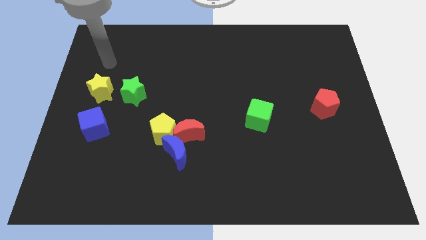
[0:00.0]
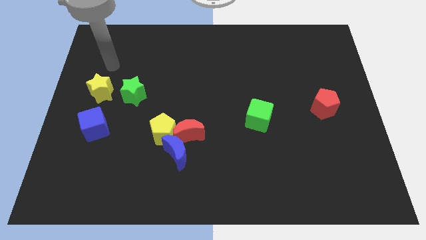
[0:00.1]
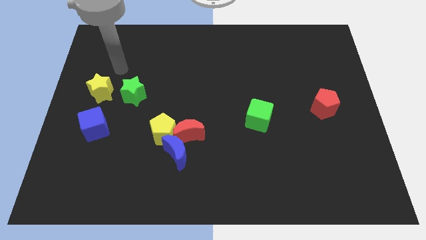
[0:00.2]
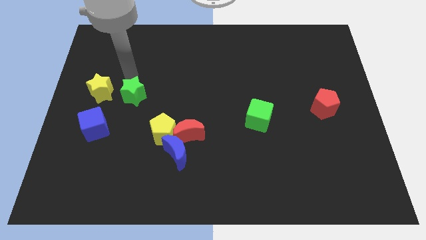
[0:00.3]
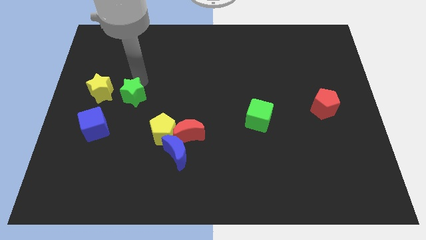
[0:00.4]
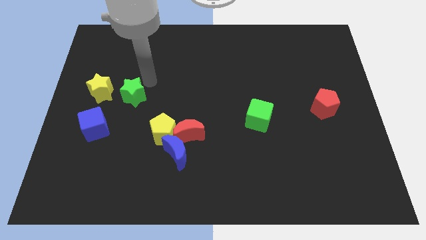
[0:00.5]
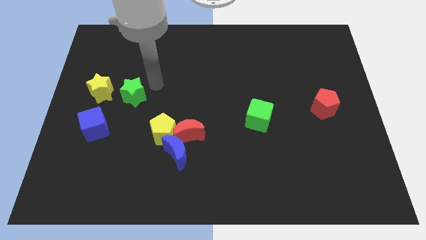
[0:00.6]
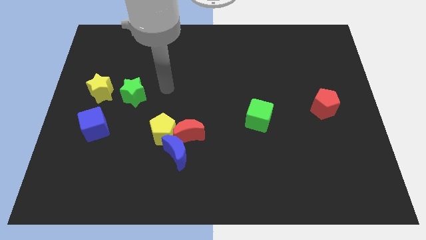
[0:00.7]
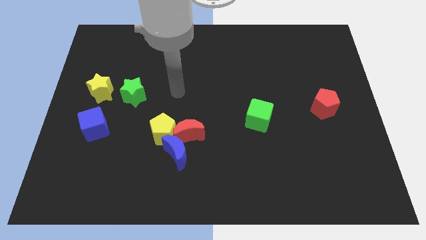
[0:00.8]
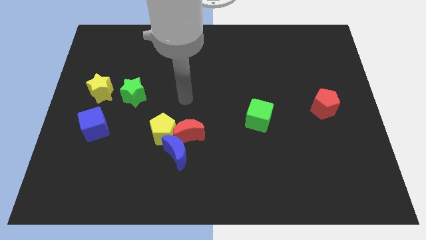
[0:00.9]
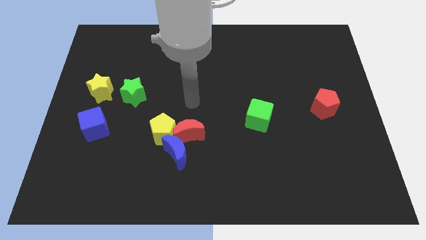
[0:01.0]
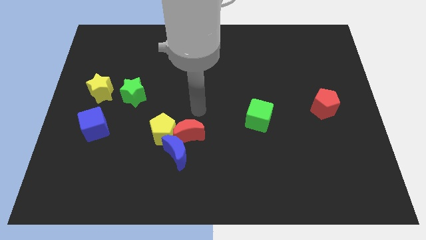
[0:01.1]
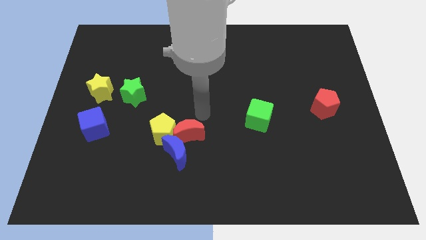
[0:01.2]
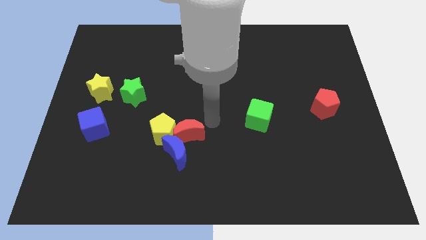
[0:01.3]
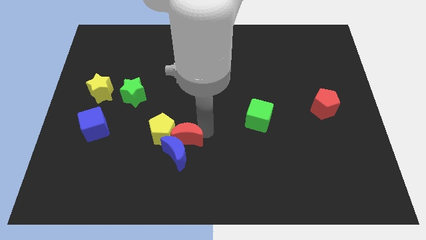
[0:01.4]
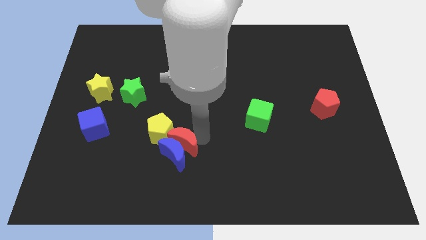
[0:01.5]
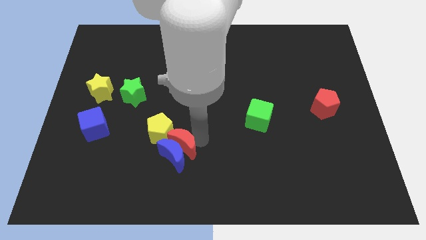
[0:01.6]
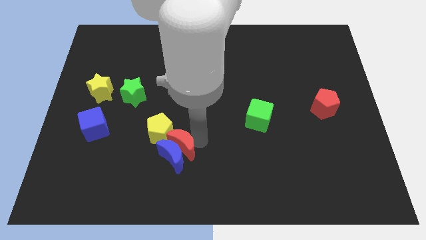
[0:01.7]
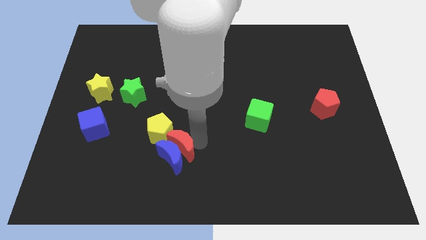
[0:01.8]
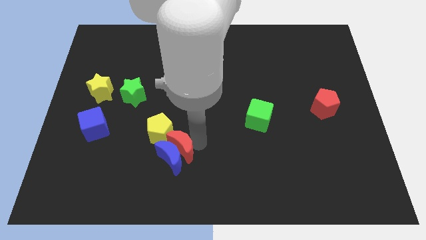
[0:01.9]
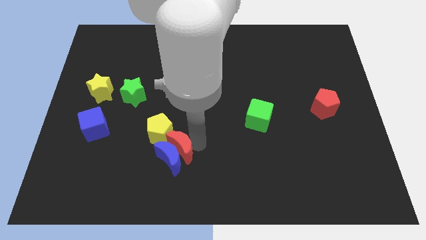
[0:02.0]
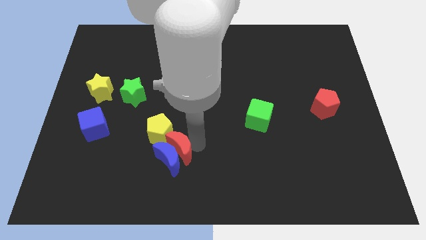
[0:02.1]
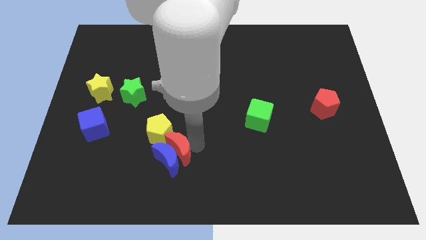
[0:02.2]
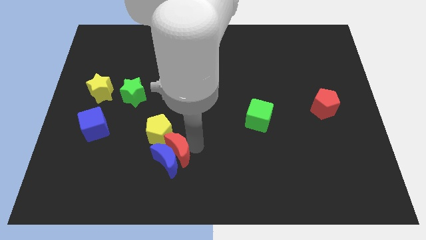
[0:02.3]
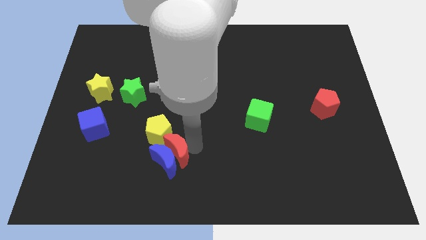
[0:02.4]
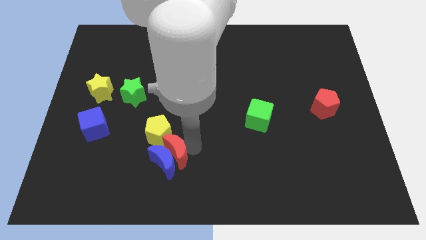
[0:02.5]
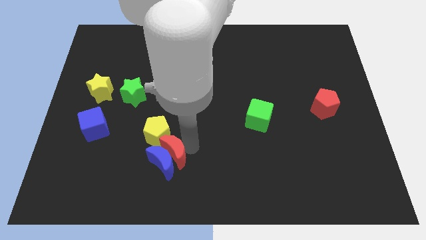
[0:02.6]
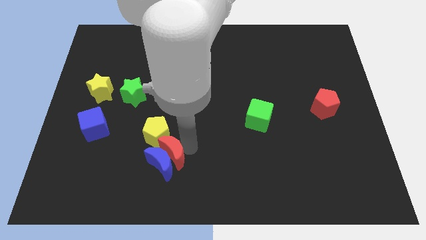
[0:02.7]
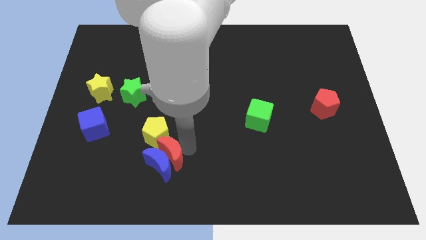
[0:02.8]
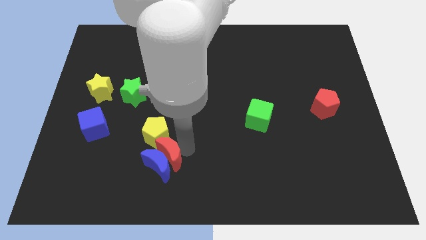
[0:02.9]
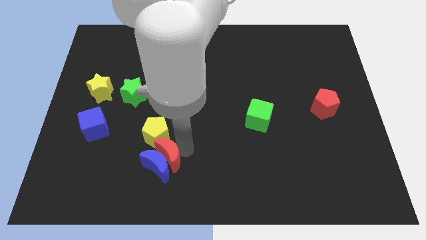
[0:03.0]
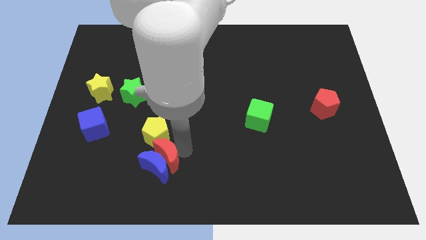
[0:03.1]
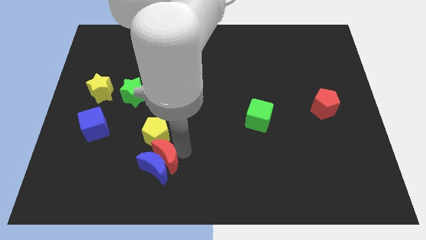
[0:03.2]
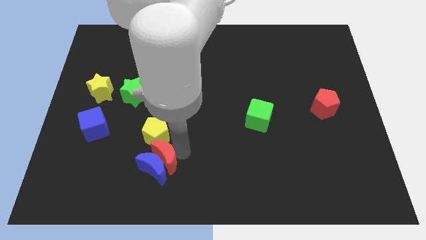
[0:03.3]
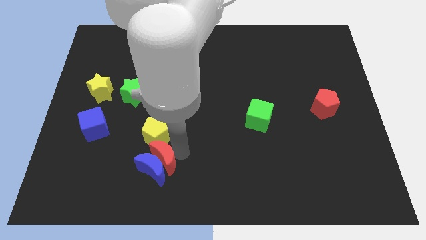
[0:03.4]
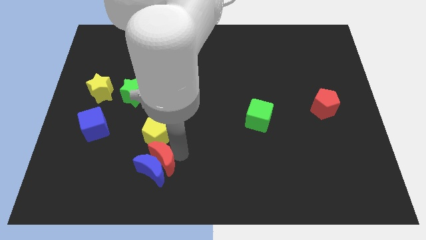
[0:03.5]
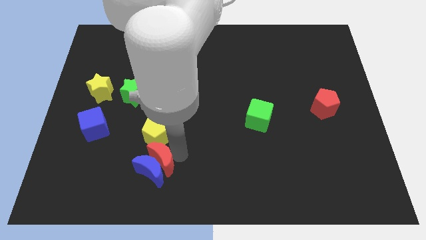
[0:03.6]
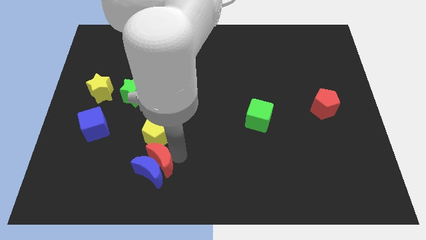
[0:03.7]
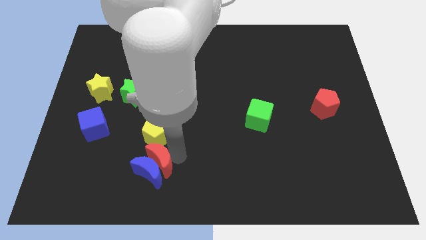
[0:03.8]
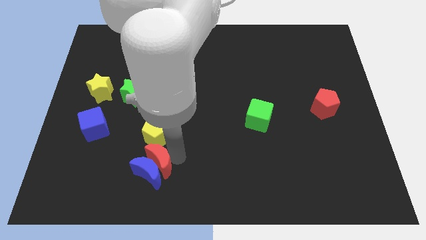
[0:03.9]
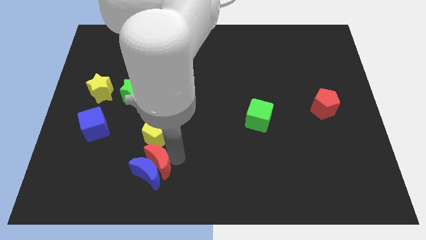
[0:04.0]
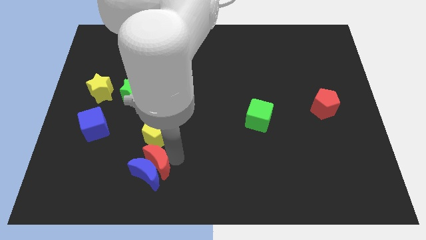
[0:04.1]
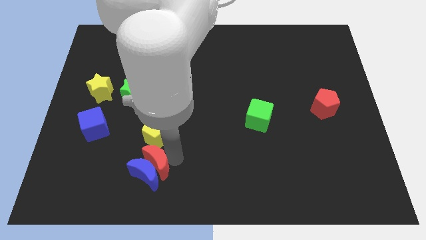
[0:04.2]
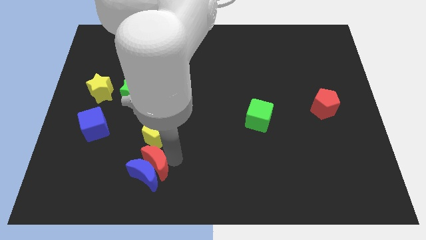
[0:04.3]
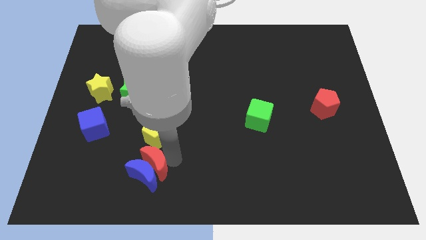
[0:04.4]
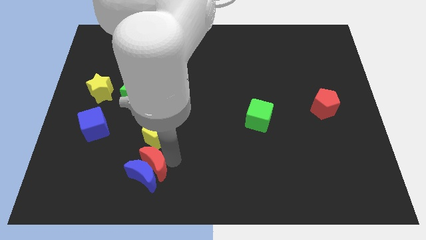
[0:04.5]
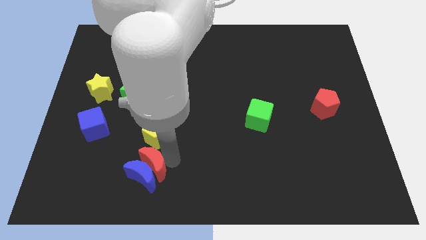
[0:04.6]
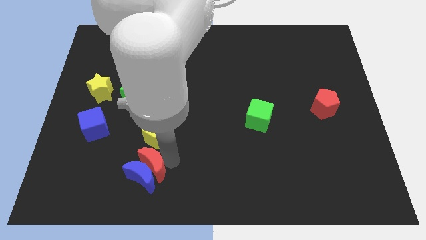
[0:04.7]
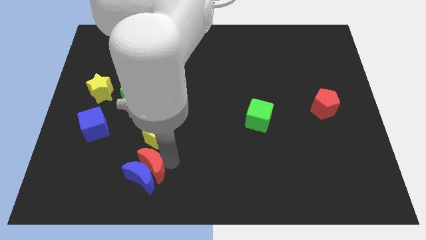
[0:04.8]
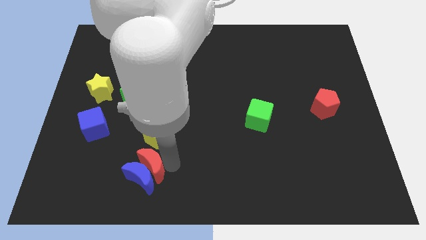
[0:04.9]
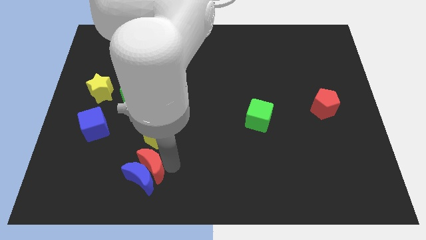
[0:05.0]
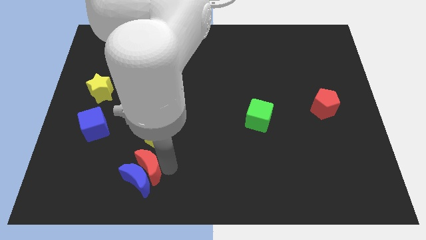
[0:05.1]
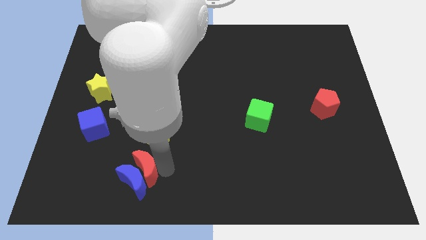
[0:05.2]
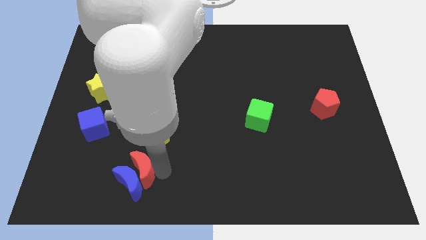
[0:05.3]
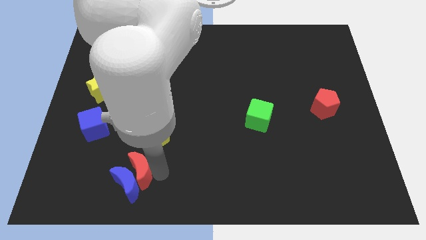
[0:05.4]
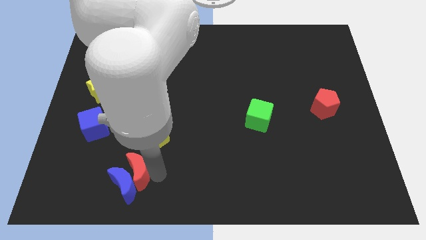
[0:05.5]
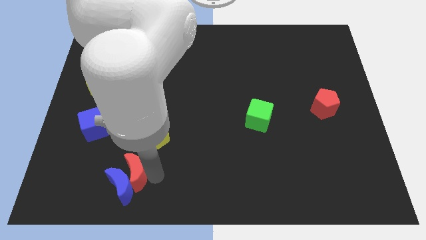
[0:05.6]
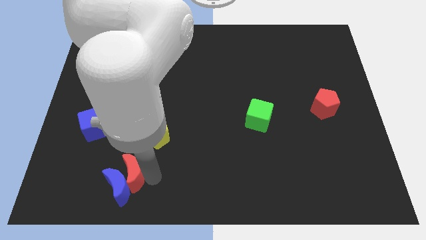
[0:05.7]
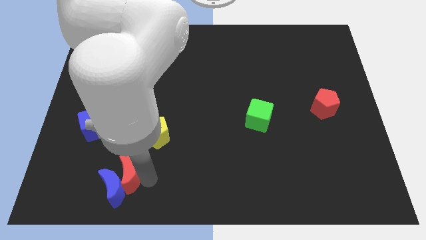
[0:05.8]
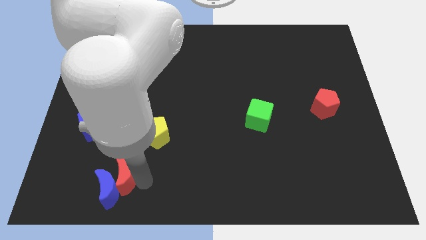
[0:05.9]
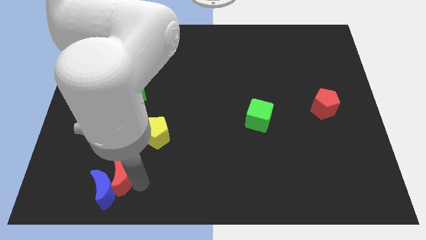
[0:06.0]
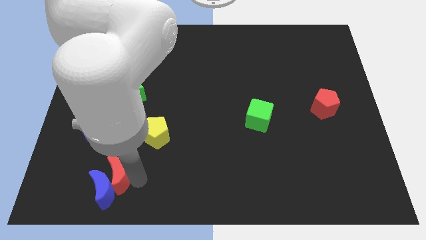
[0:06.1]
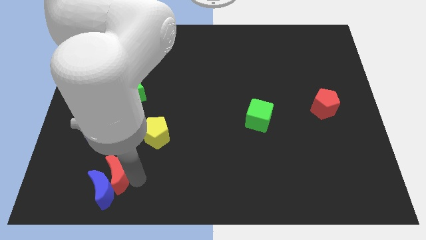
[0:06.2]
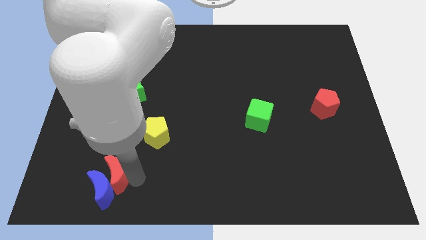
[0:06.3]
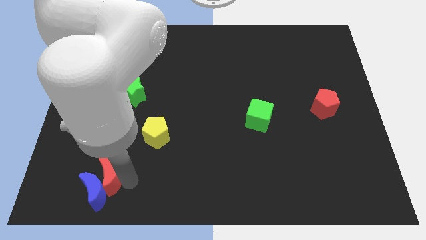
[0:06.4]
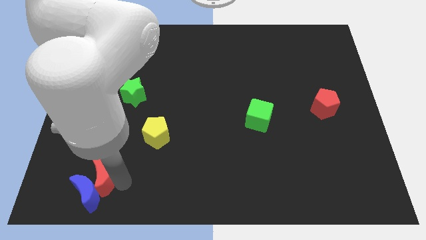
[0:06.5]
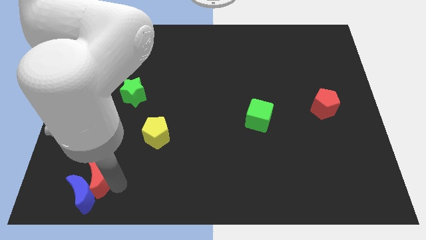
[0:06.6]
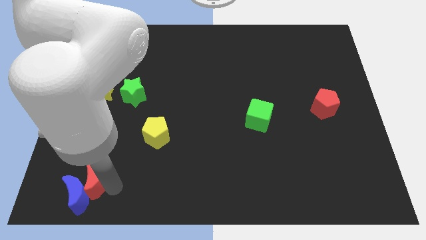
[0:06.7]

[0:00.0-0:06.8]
put the blue moon to the bottom left of the board
